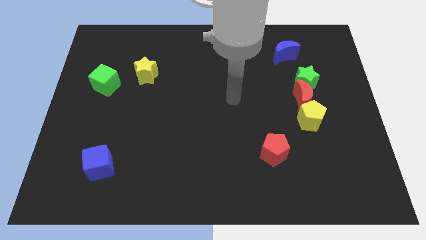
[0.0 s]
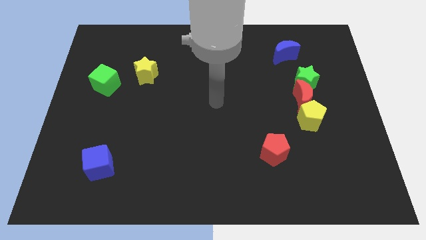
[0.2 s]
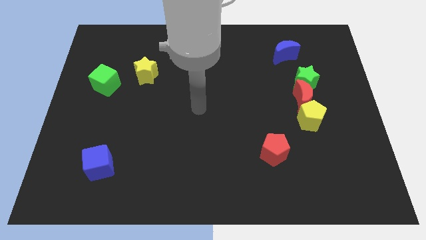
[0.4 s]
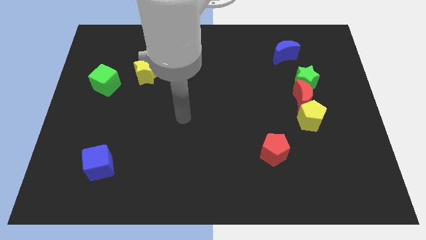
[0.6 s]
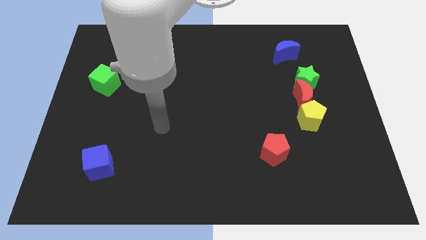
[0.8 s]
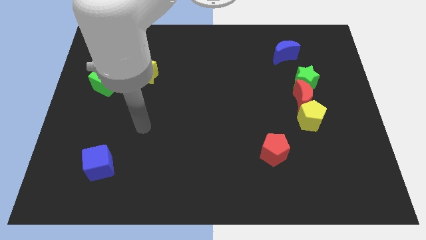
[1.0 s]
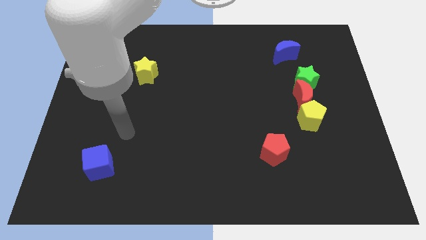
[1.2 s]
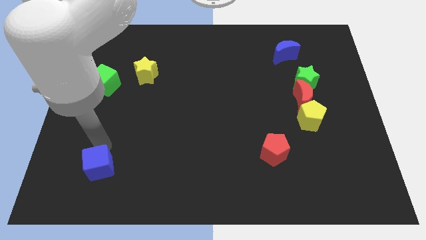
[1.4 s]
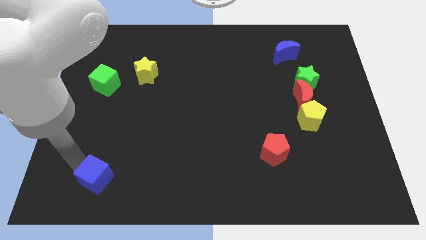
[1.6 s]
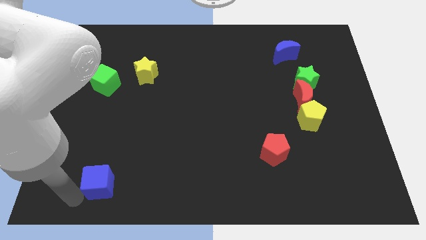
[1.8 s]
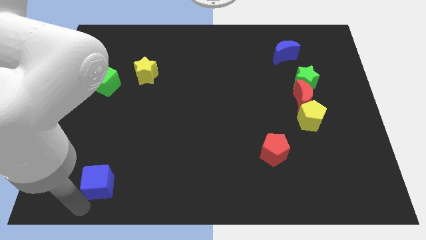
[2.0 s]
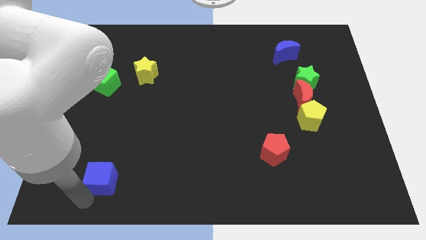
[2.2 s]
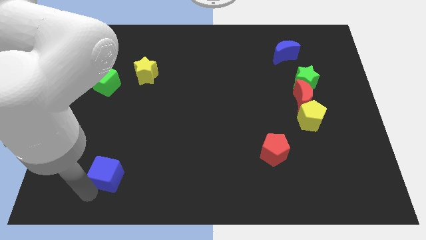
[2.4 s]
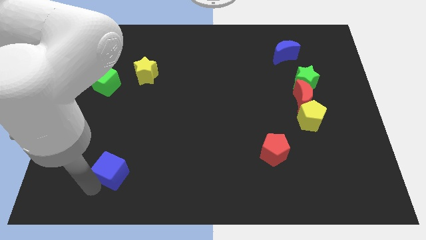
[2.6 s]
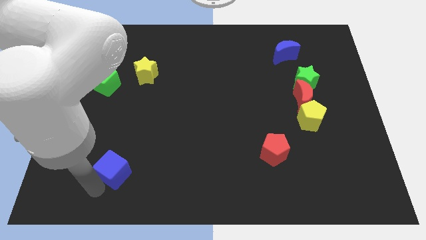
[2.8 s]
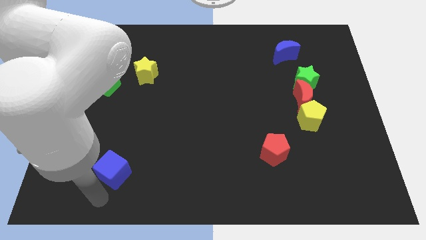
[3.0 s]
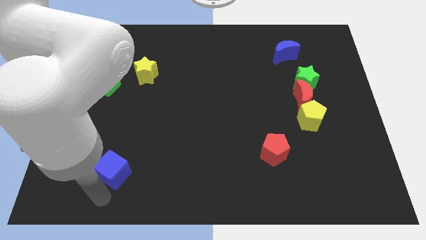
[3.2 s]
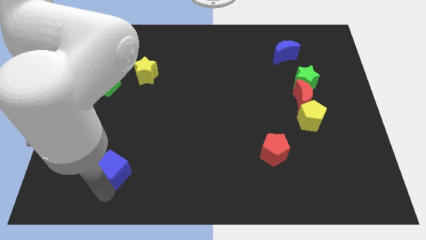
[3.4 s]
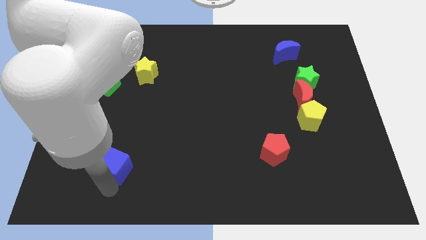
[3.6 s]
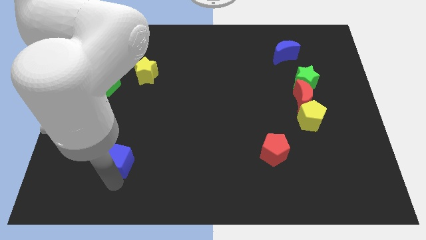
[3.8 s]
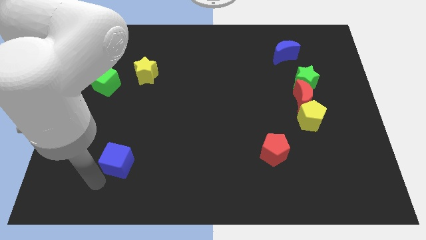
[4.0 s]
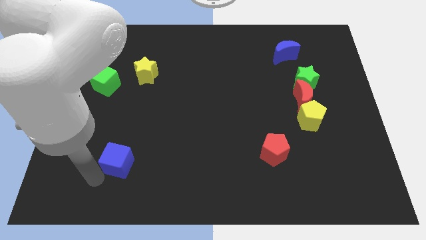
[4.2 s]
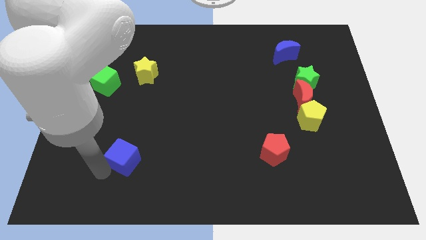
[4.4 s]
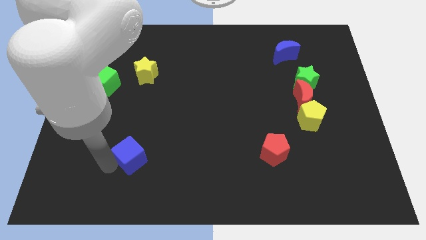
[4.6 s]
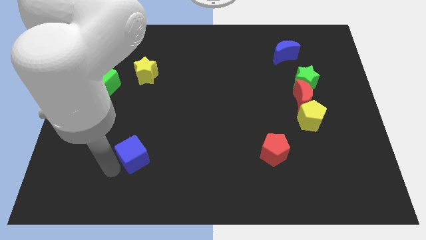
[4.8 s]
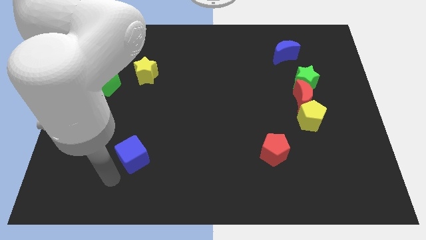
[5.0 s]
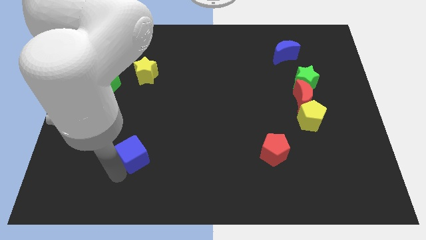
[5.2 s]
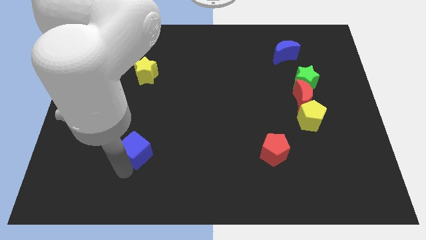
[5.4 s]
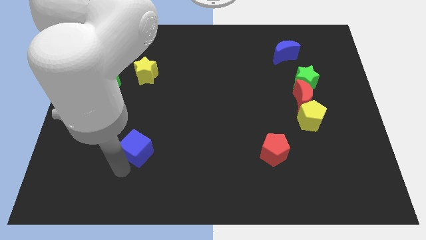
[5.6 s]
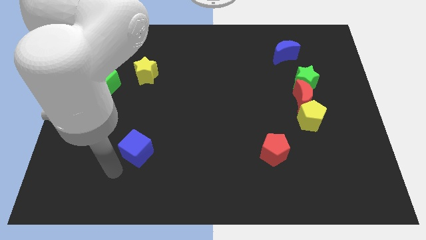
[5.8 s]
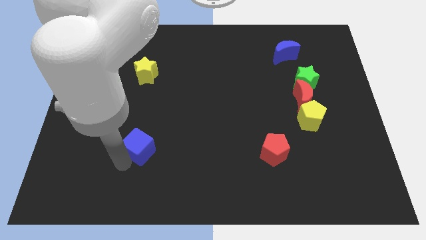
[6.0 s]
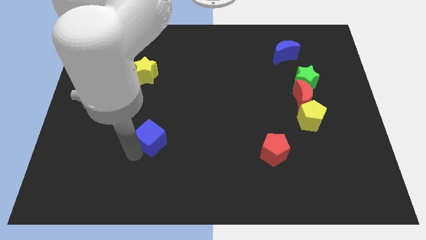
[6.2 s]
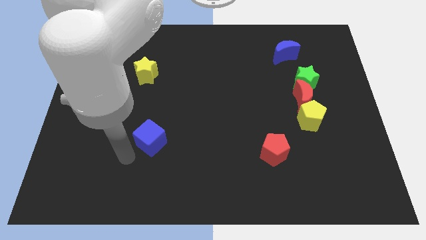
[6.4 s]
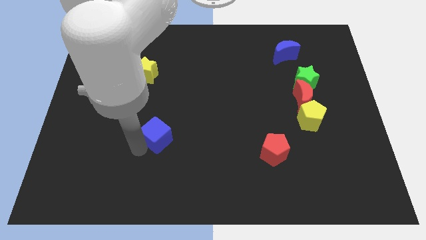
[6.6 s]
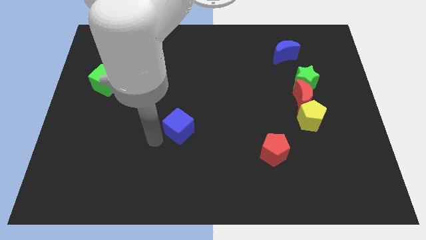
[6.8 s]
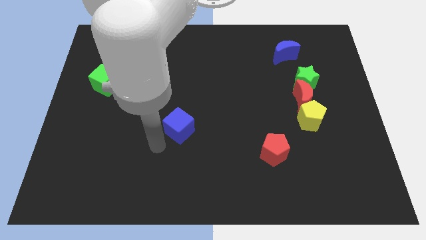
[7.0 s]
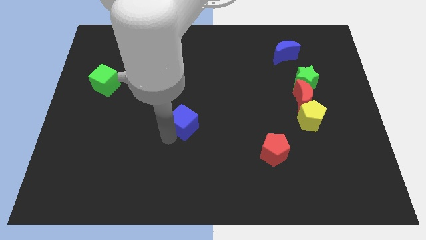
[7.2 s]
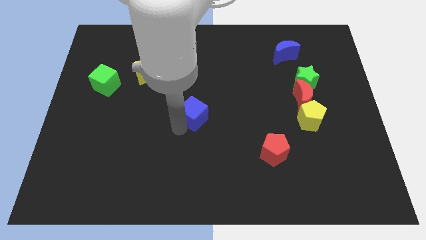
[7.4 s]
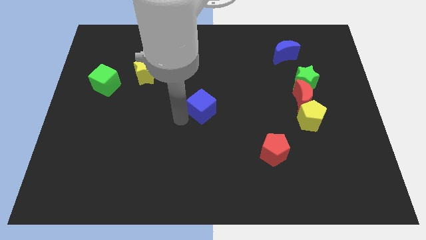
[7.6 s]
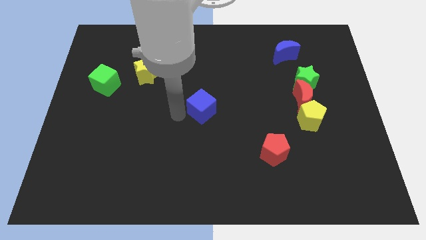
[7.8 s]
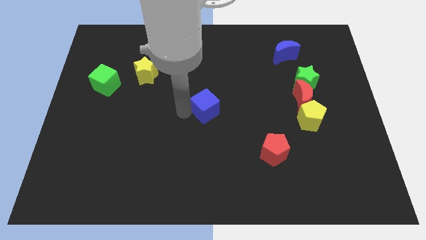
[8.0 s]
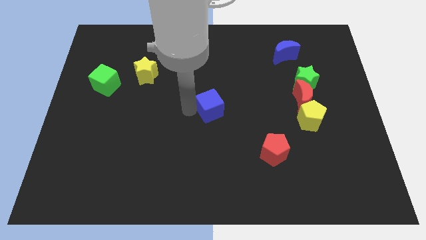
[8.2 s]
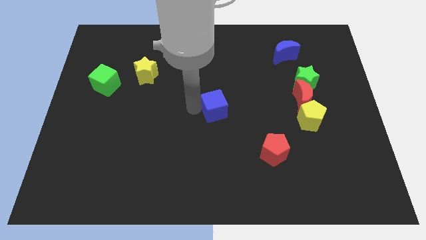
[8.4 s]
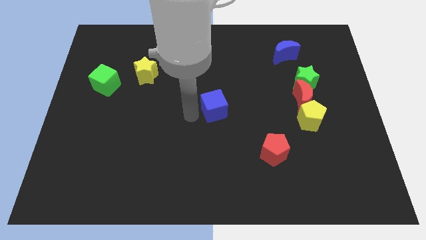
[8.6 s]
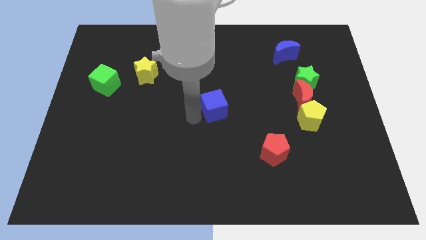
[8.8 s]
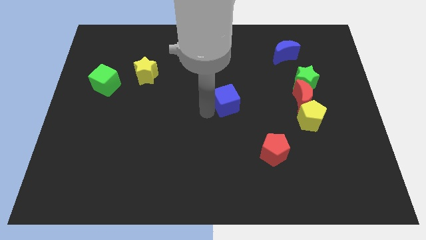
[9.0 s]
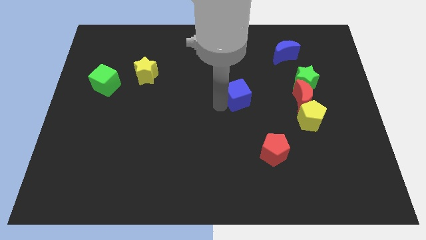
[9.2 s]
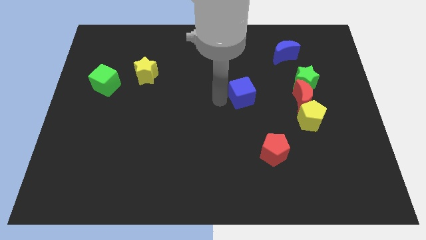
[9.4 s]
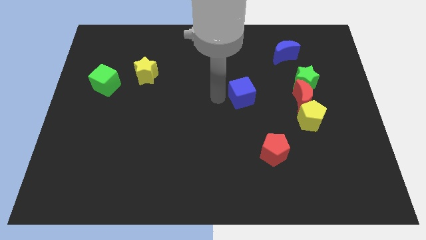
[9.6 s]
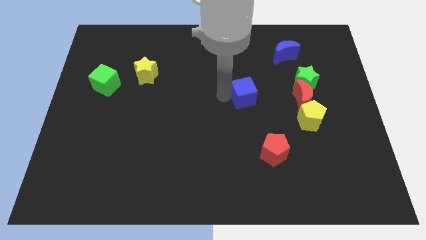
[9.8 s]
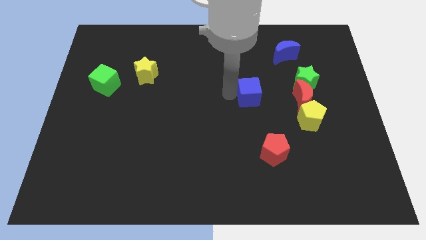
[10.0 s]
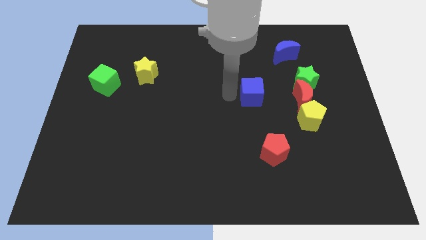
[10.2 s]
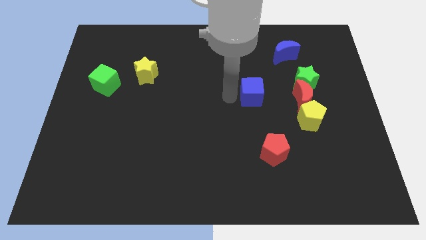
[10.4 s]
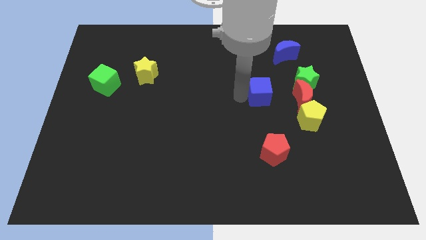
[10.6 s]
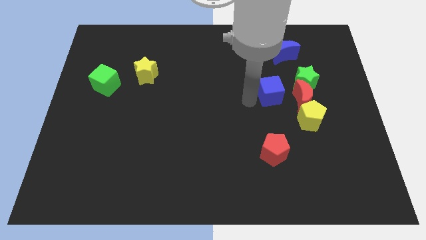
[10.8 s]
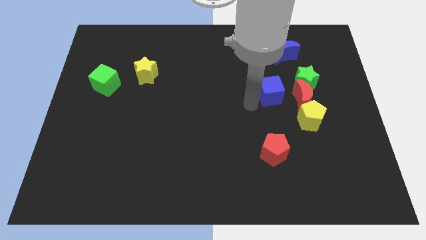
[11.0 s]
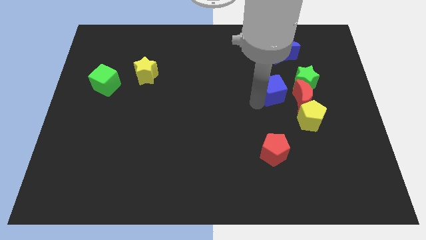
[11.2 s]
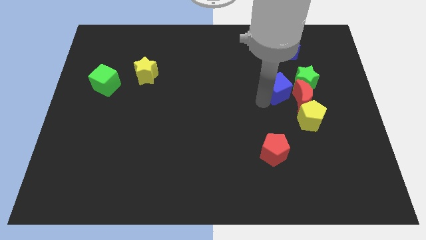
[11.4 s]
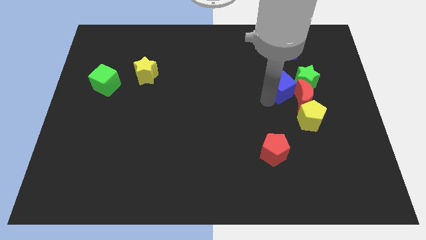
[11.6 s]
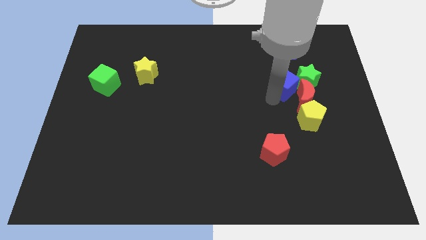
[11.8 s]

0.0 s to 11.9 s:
slide the blue cube towards the green star

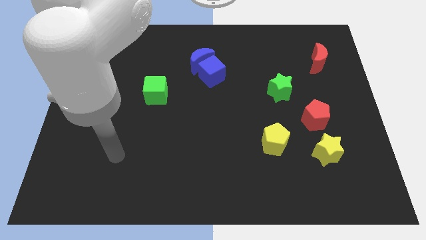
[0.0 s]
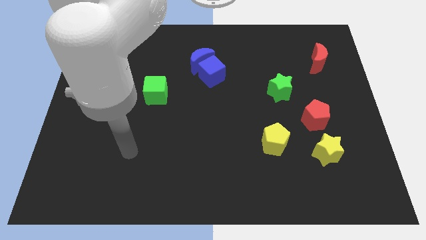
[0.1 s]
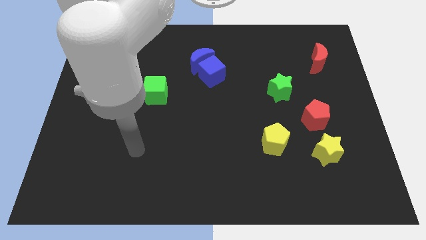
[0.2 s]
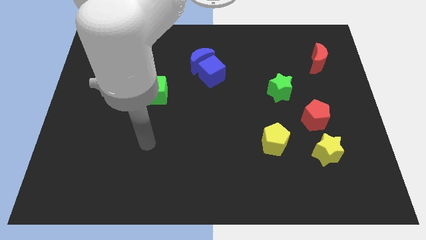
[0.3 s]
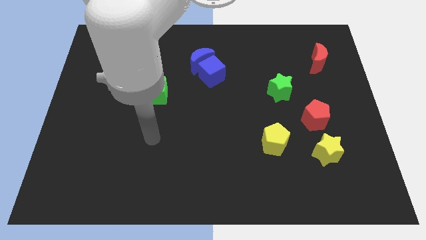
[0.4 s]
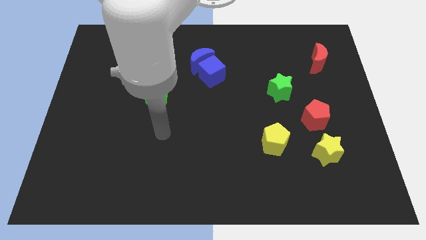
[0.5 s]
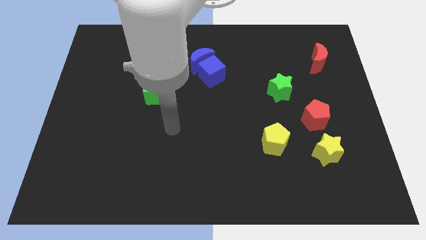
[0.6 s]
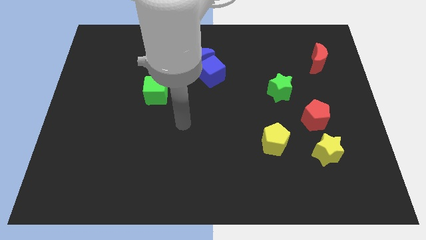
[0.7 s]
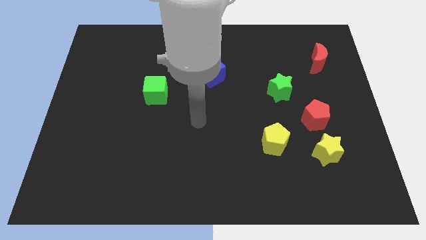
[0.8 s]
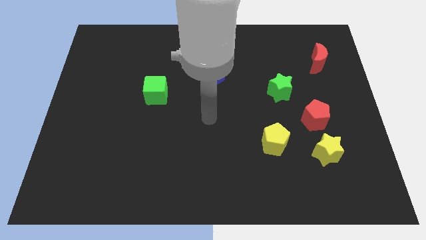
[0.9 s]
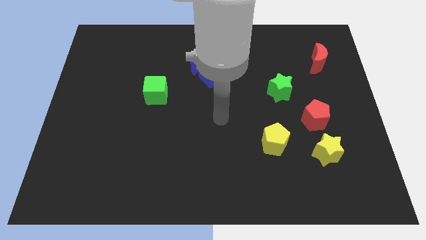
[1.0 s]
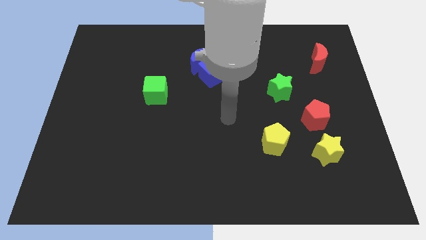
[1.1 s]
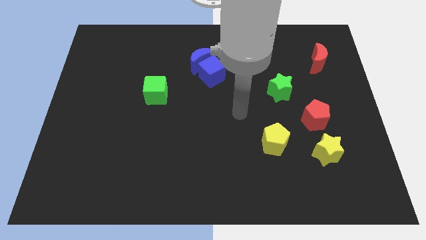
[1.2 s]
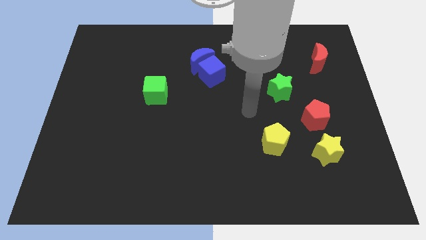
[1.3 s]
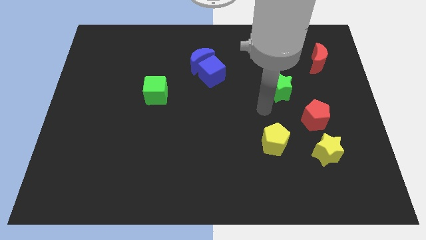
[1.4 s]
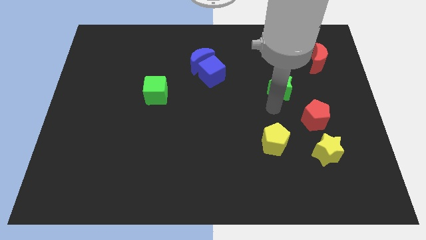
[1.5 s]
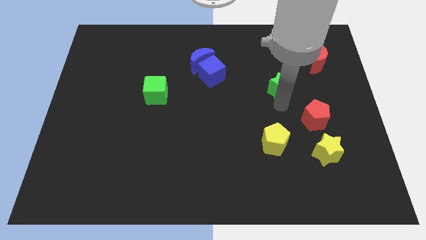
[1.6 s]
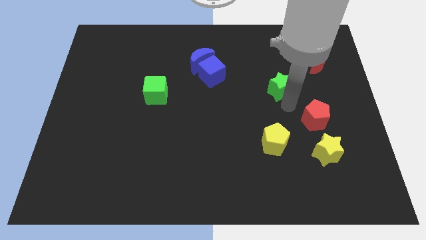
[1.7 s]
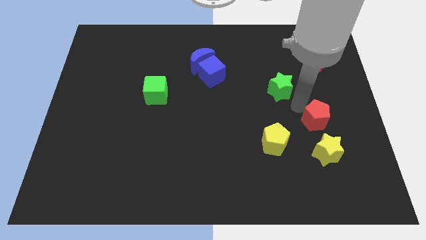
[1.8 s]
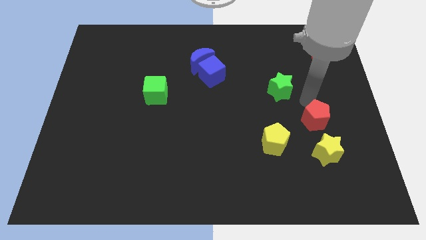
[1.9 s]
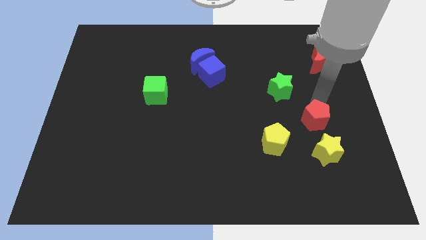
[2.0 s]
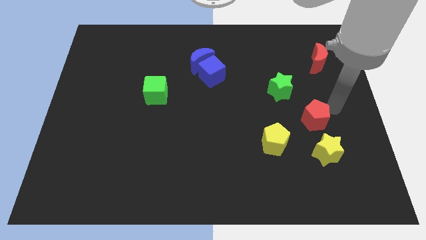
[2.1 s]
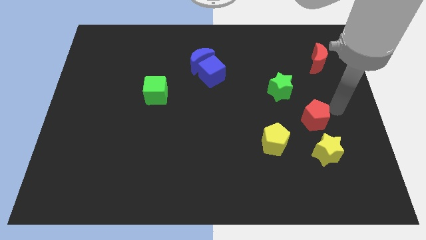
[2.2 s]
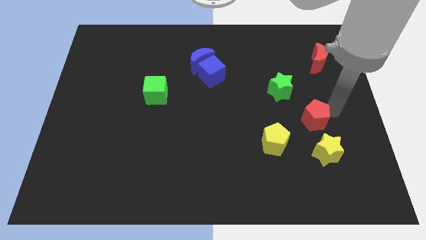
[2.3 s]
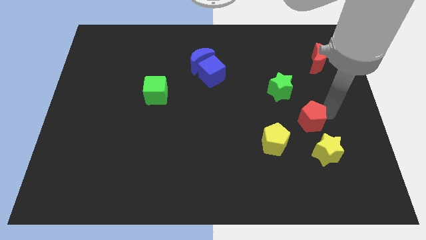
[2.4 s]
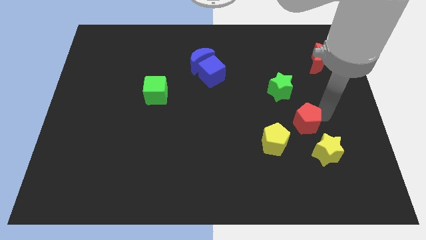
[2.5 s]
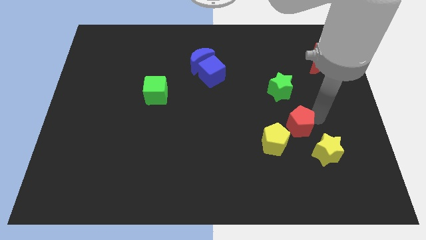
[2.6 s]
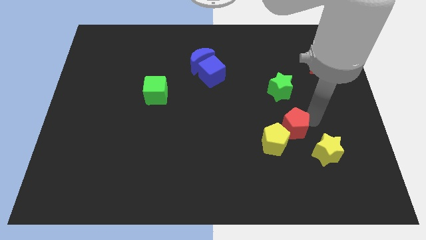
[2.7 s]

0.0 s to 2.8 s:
move the red pentagon next to the yellow pentagon
